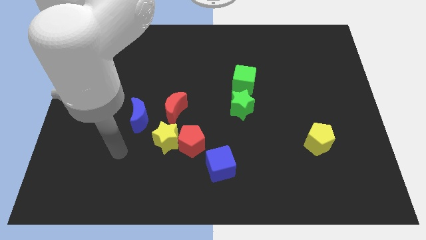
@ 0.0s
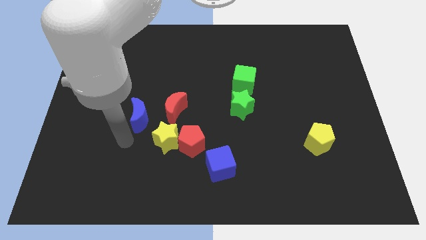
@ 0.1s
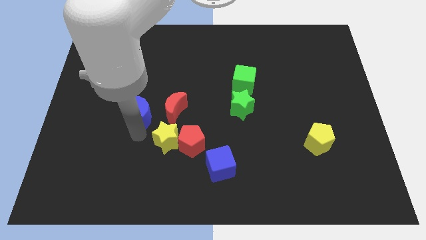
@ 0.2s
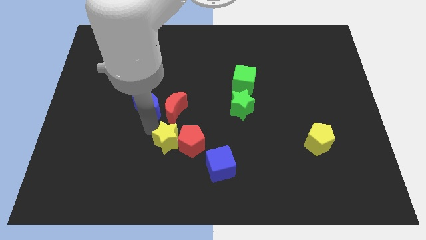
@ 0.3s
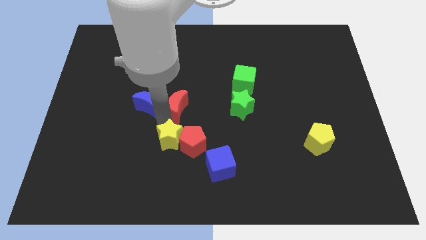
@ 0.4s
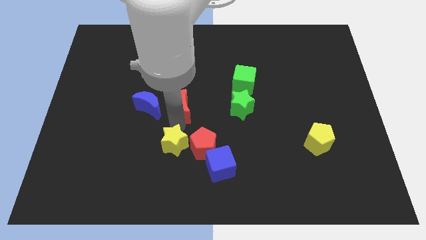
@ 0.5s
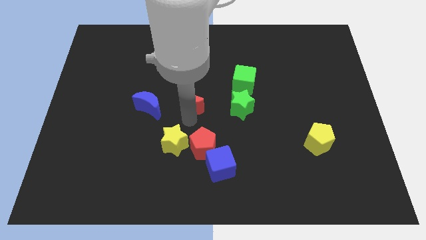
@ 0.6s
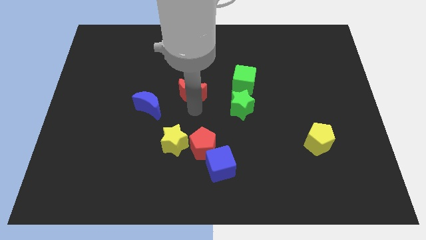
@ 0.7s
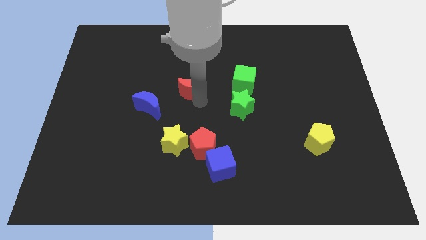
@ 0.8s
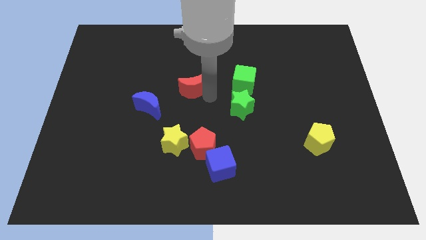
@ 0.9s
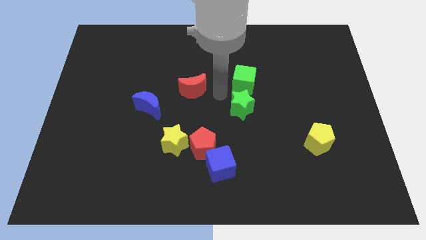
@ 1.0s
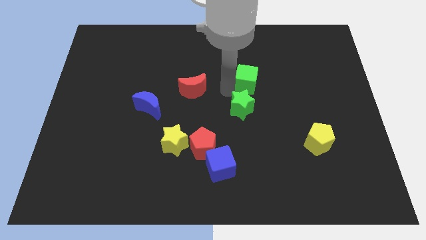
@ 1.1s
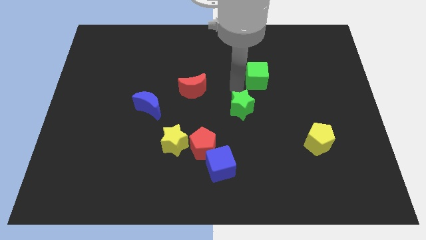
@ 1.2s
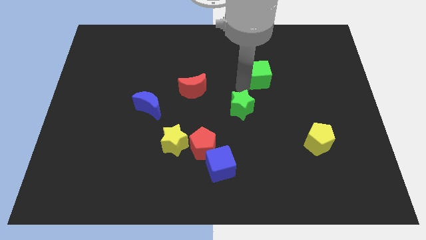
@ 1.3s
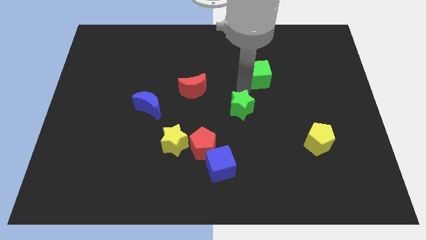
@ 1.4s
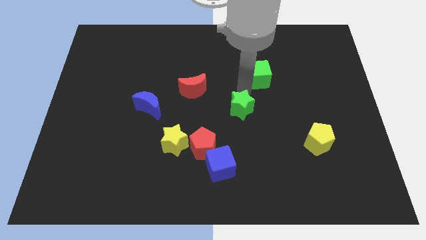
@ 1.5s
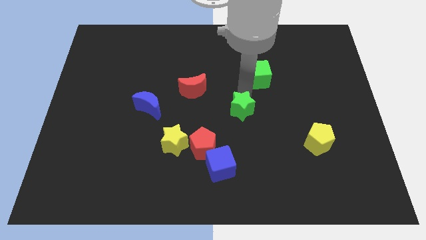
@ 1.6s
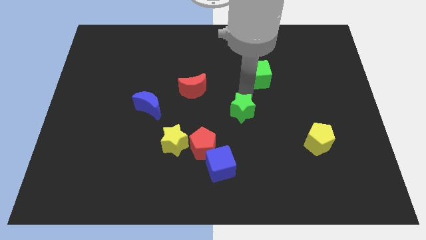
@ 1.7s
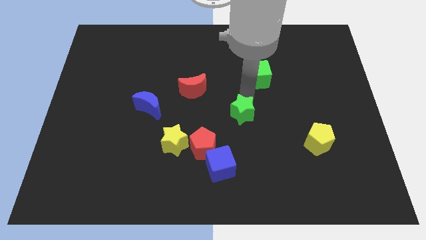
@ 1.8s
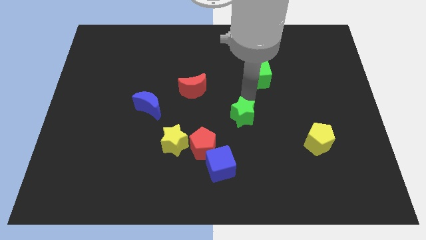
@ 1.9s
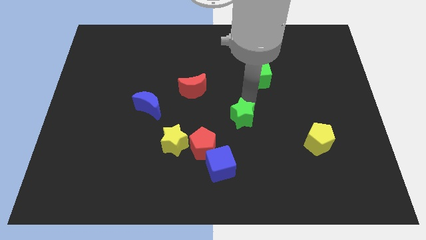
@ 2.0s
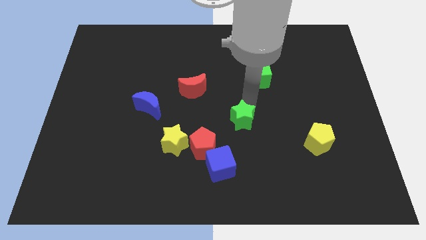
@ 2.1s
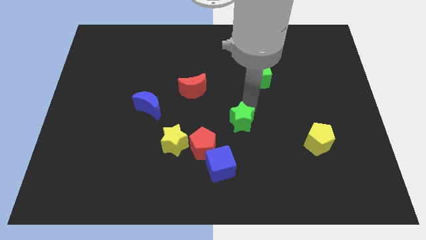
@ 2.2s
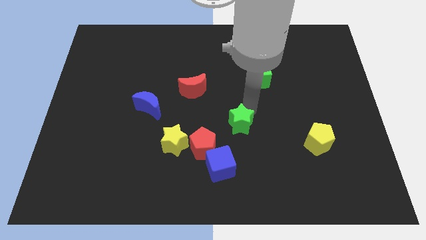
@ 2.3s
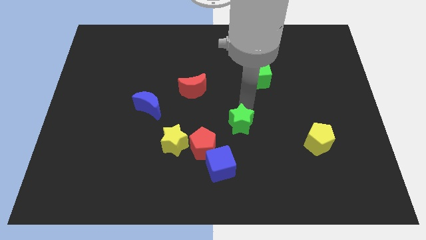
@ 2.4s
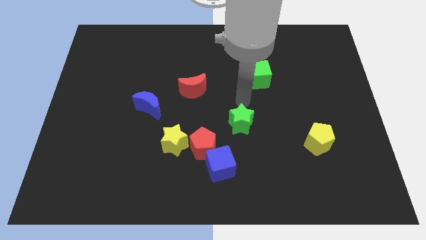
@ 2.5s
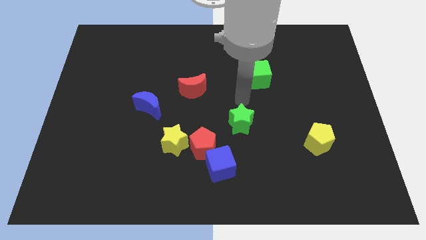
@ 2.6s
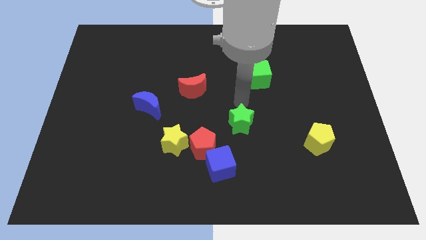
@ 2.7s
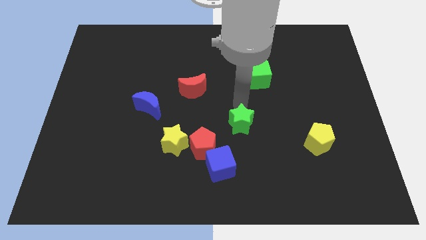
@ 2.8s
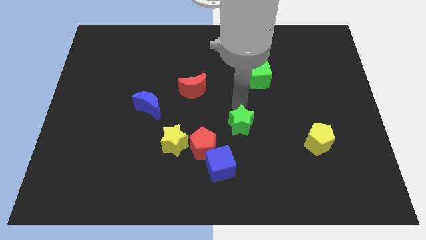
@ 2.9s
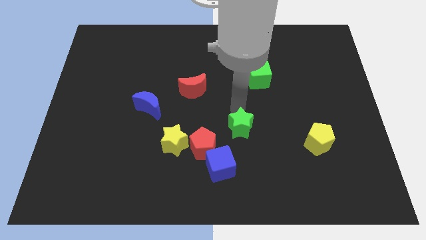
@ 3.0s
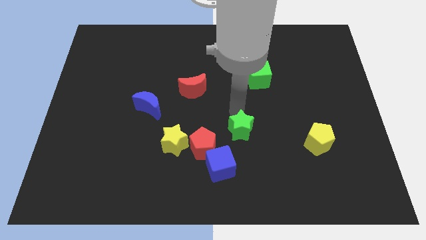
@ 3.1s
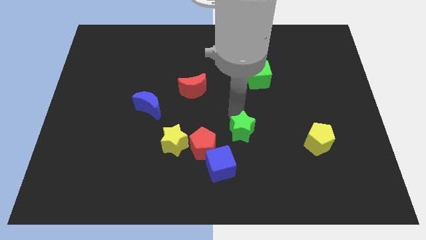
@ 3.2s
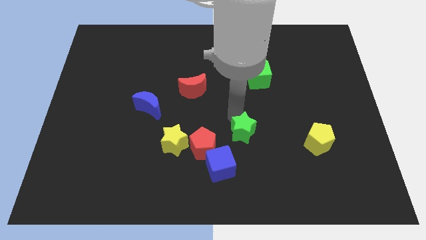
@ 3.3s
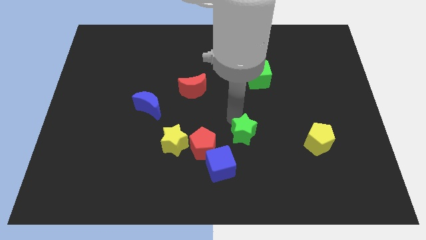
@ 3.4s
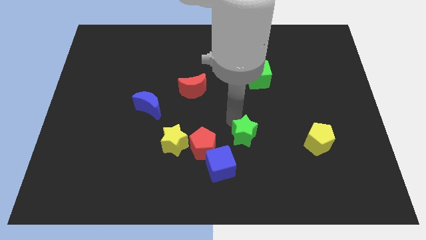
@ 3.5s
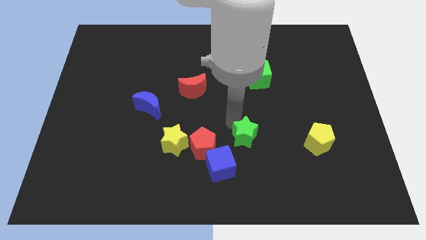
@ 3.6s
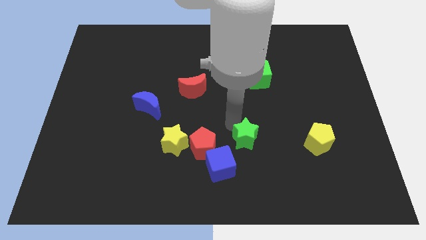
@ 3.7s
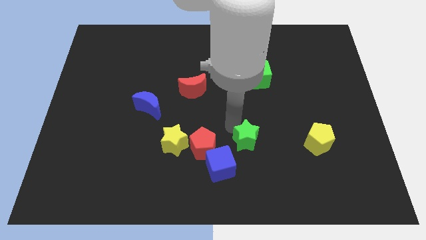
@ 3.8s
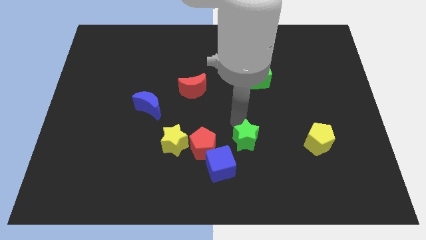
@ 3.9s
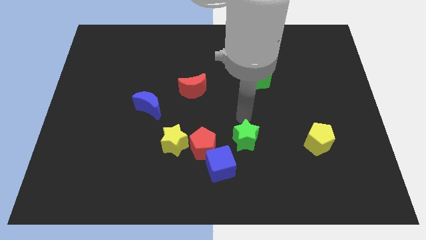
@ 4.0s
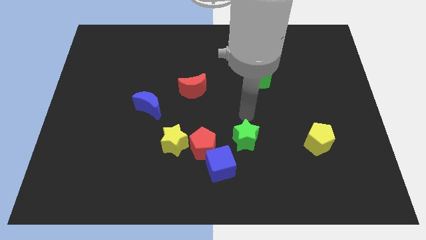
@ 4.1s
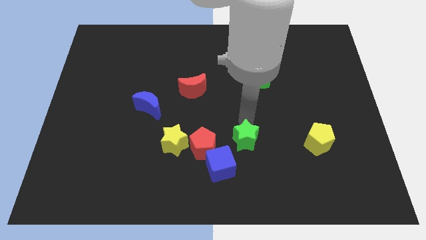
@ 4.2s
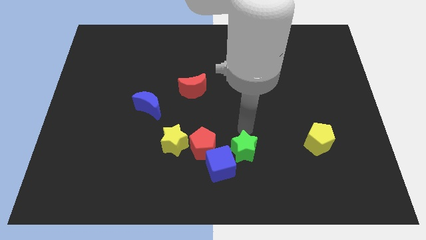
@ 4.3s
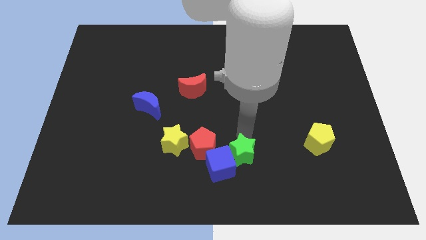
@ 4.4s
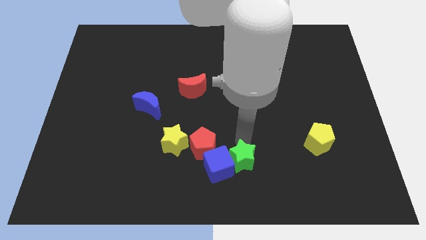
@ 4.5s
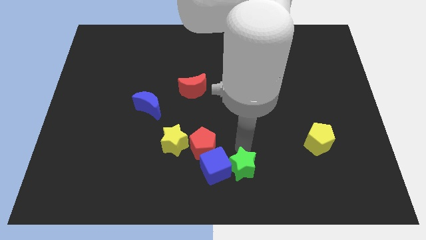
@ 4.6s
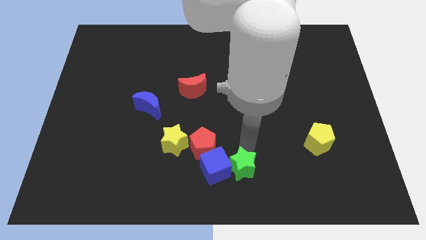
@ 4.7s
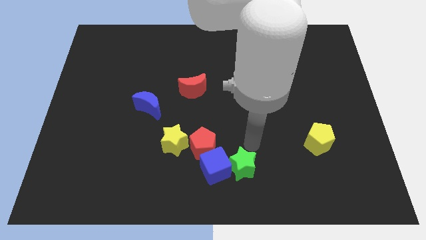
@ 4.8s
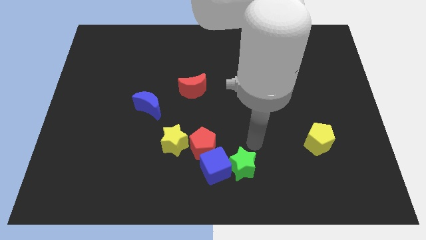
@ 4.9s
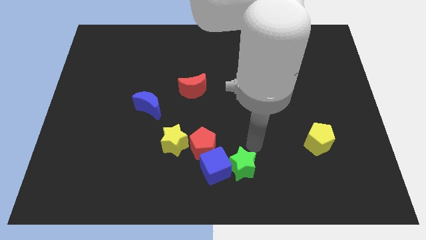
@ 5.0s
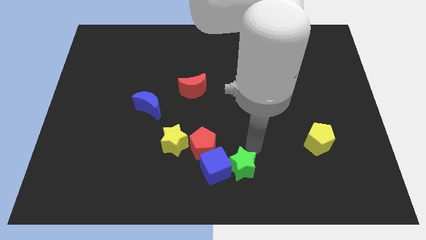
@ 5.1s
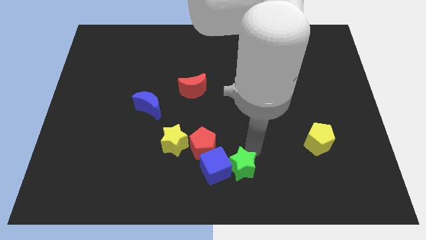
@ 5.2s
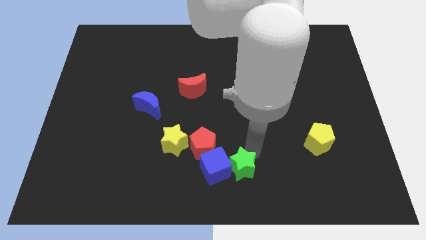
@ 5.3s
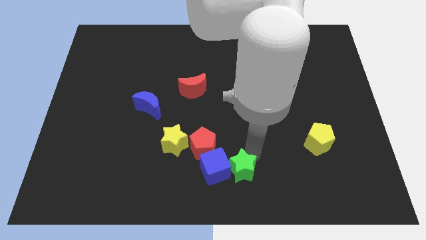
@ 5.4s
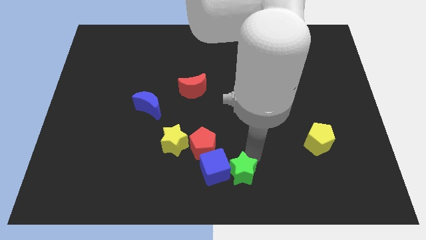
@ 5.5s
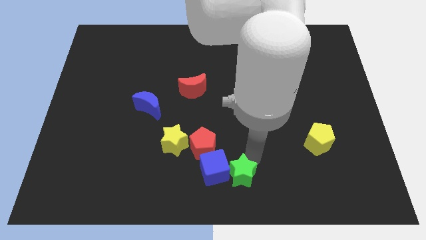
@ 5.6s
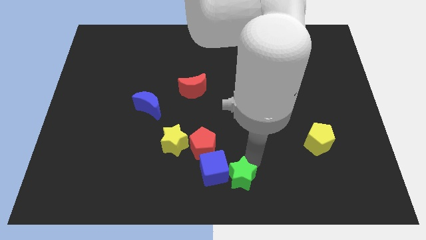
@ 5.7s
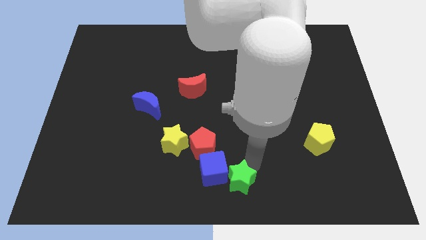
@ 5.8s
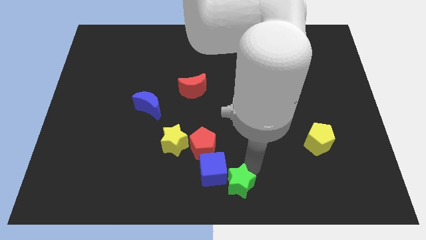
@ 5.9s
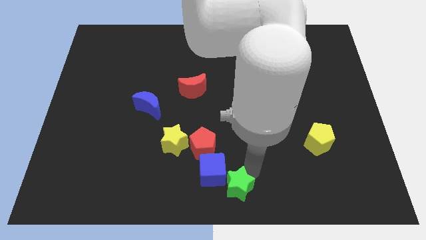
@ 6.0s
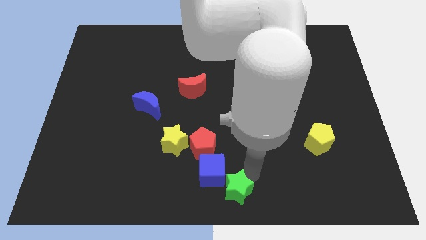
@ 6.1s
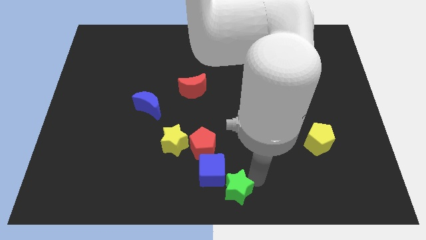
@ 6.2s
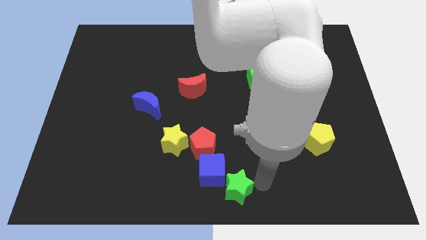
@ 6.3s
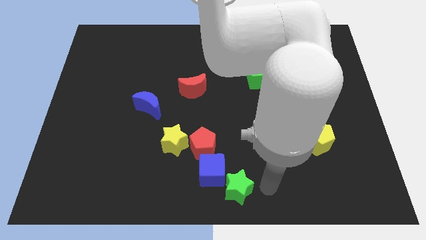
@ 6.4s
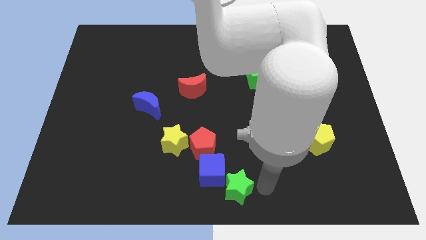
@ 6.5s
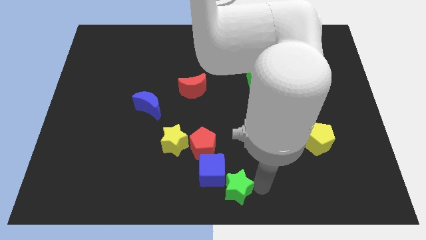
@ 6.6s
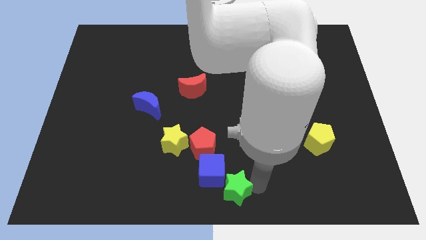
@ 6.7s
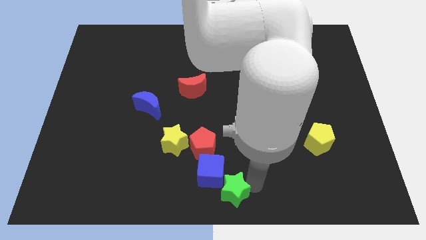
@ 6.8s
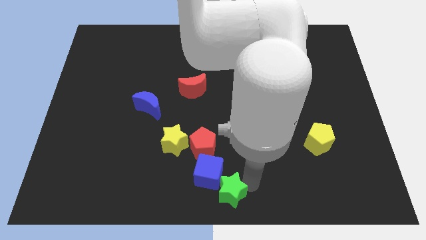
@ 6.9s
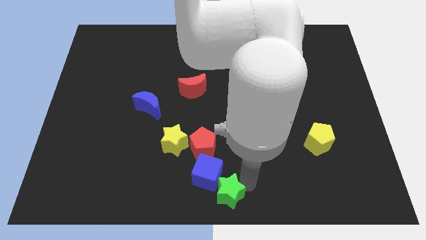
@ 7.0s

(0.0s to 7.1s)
move the green star down and left slightly

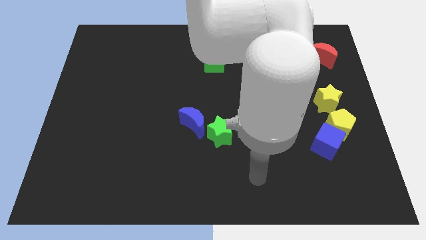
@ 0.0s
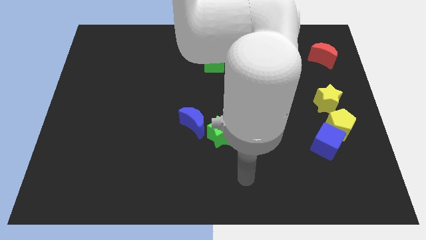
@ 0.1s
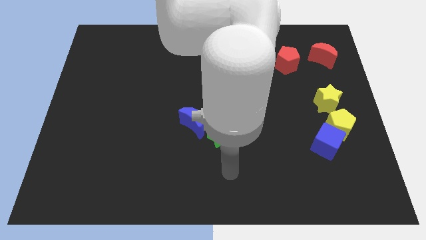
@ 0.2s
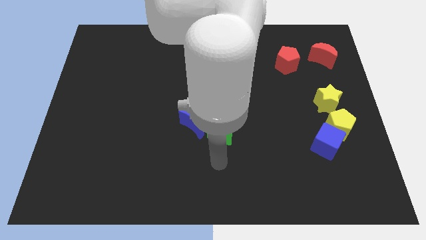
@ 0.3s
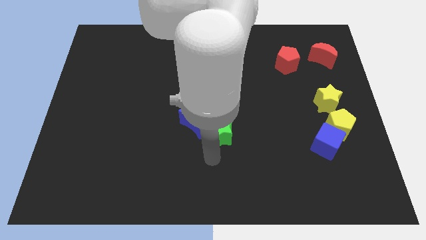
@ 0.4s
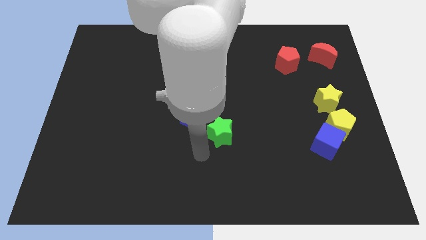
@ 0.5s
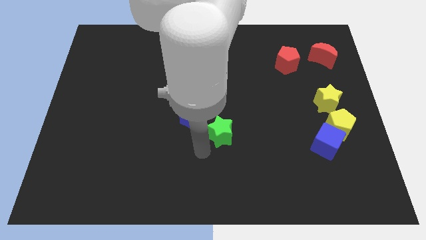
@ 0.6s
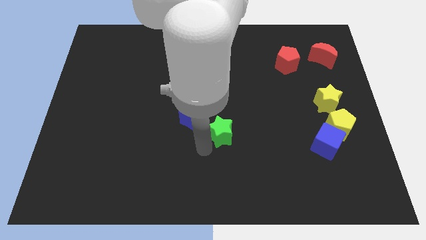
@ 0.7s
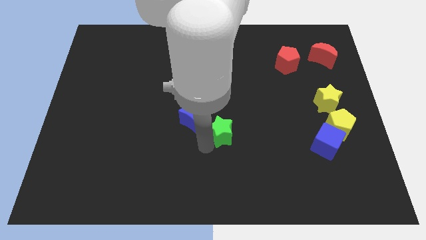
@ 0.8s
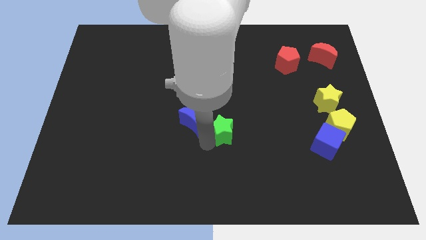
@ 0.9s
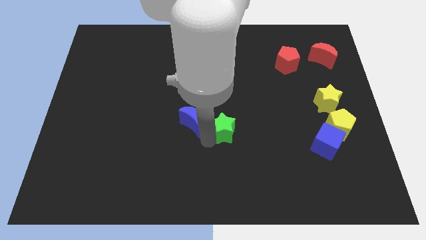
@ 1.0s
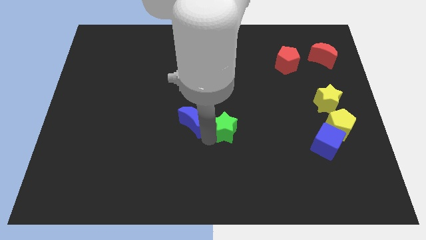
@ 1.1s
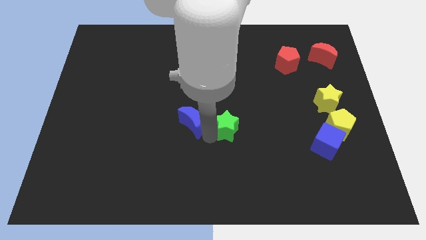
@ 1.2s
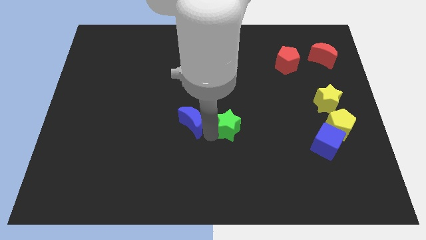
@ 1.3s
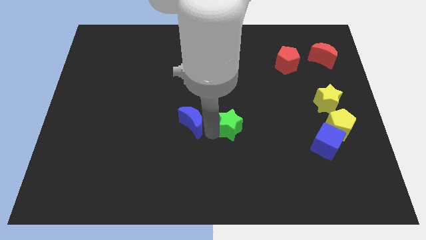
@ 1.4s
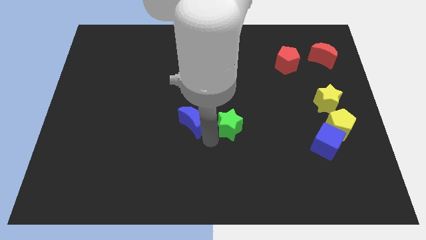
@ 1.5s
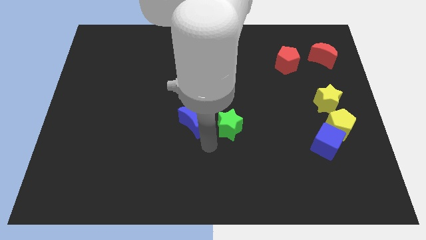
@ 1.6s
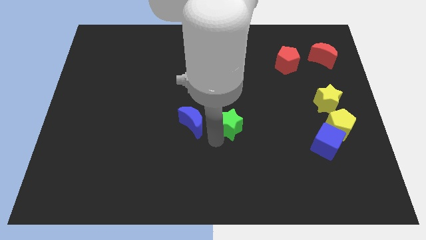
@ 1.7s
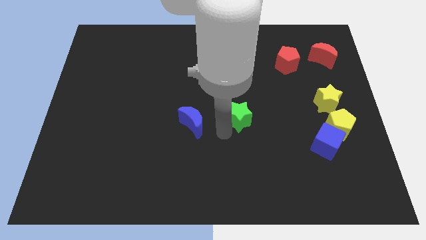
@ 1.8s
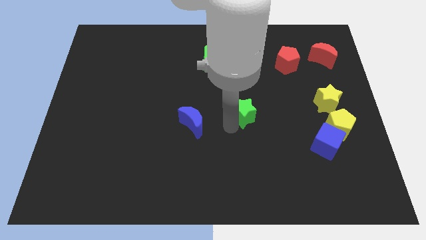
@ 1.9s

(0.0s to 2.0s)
slightly push the green star upwards and then right
